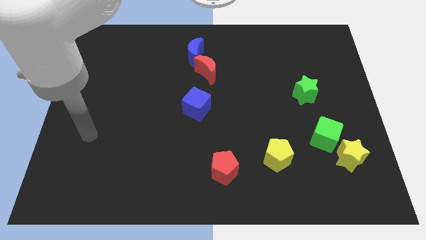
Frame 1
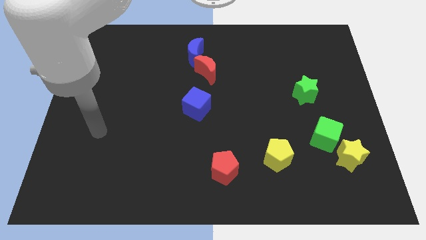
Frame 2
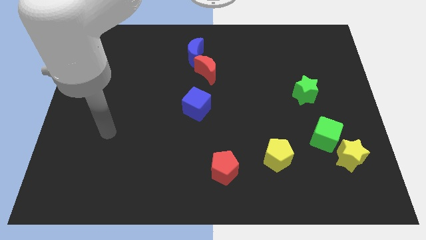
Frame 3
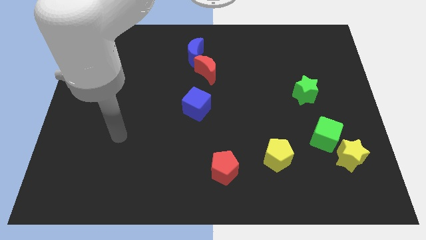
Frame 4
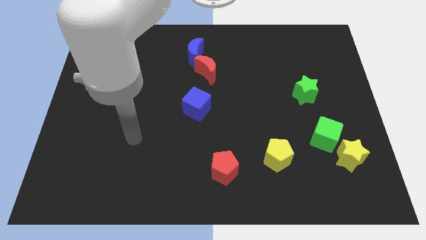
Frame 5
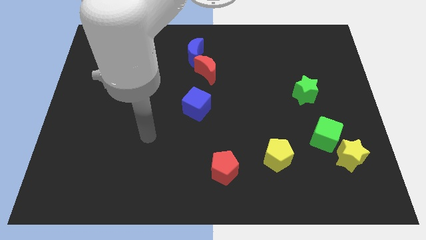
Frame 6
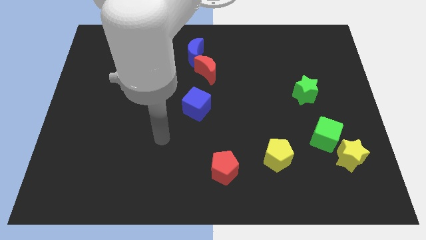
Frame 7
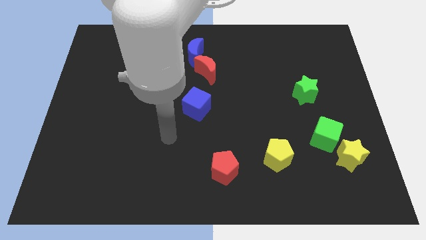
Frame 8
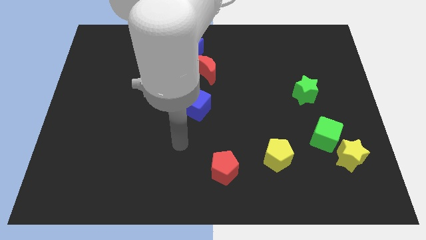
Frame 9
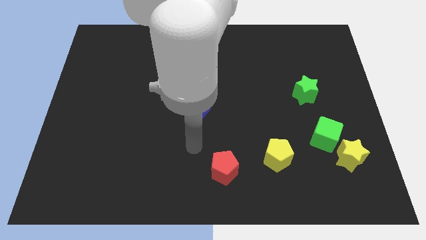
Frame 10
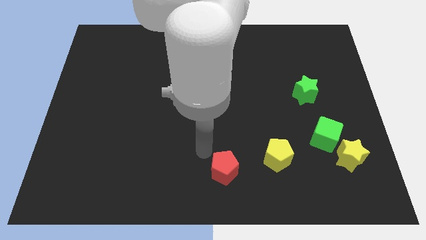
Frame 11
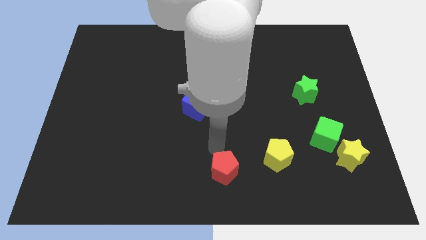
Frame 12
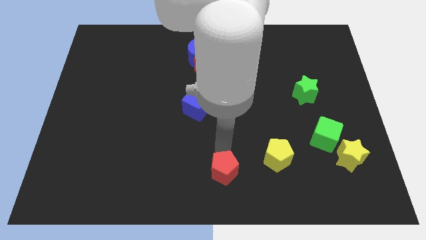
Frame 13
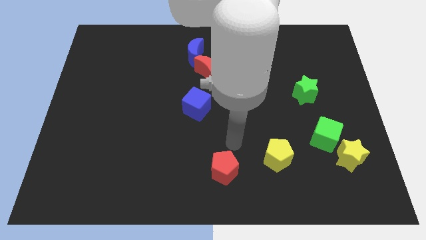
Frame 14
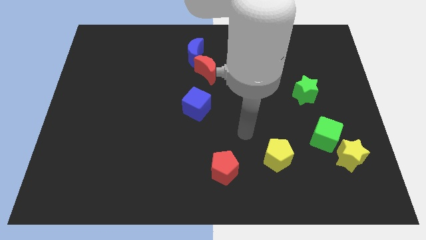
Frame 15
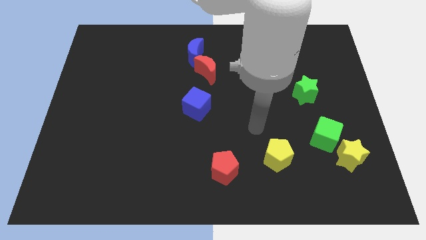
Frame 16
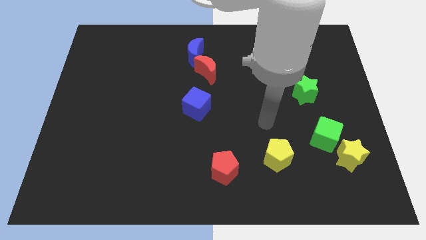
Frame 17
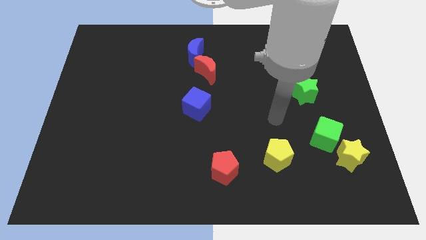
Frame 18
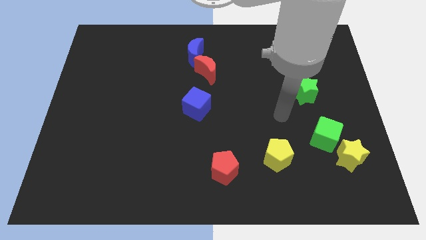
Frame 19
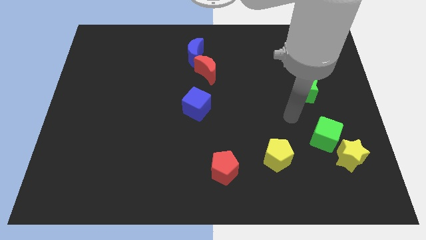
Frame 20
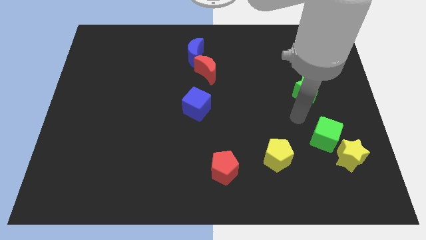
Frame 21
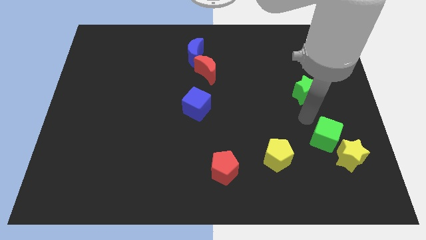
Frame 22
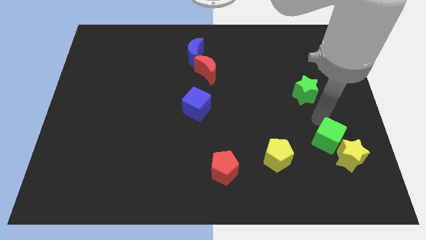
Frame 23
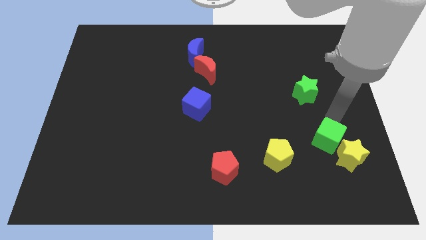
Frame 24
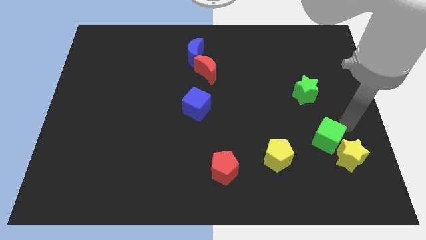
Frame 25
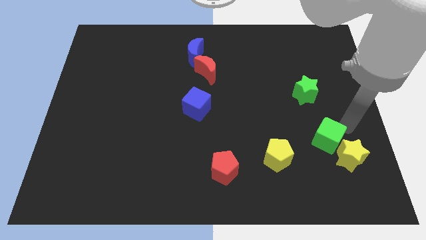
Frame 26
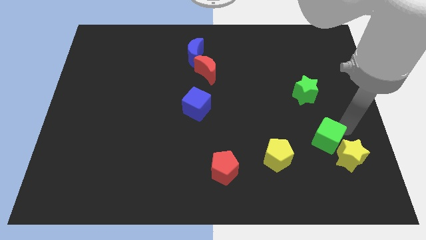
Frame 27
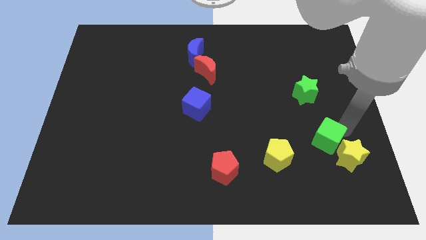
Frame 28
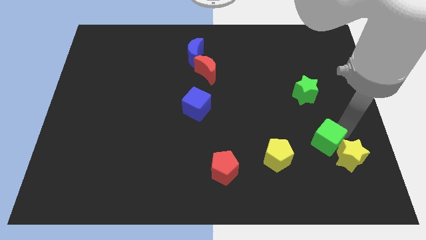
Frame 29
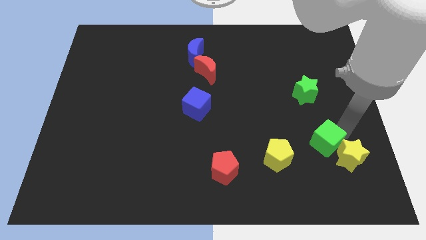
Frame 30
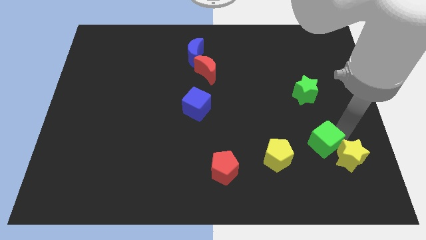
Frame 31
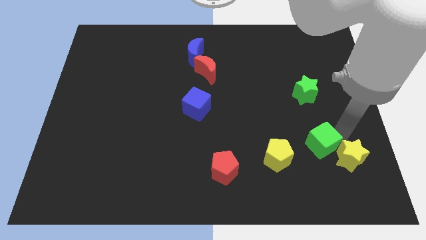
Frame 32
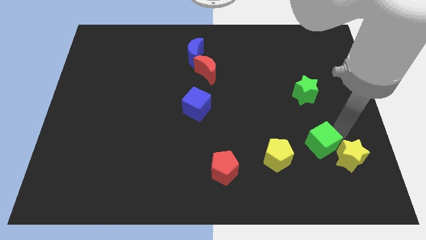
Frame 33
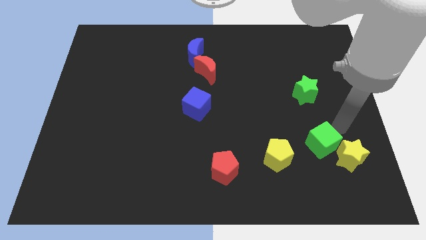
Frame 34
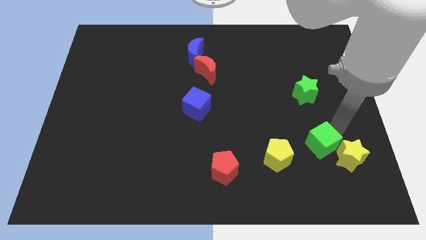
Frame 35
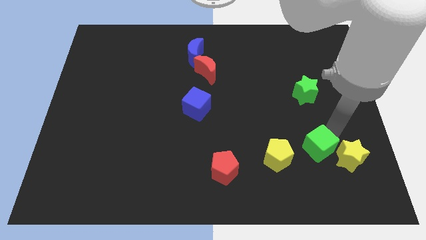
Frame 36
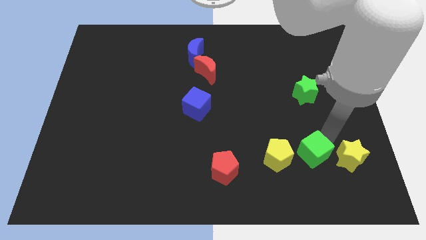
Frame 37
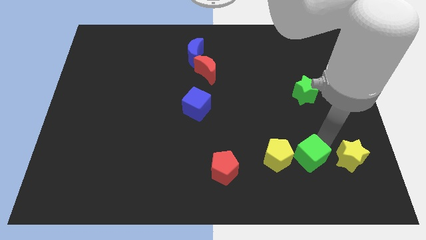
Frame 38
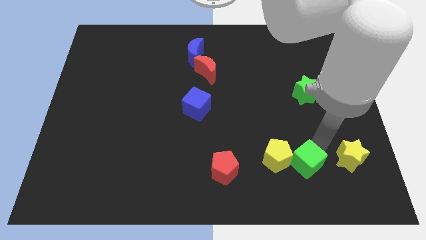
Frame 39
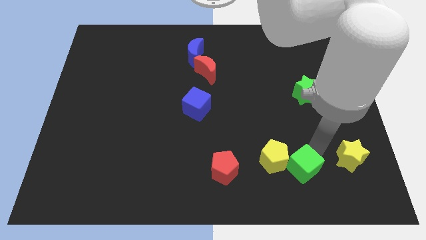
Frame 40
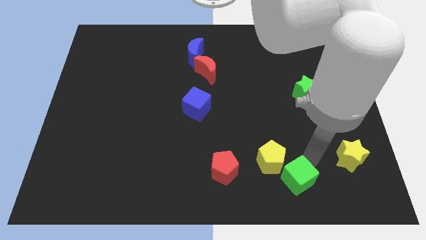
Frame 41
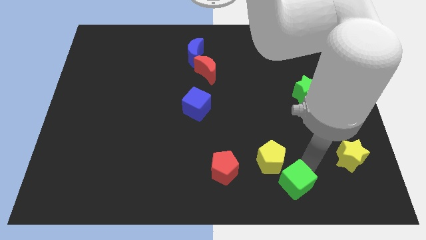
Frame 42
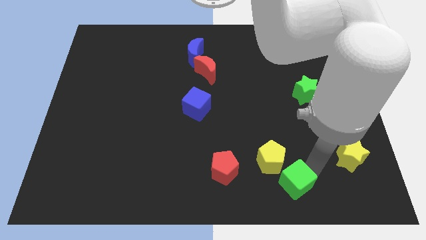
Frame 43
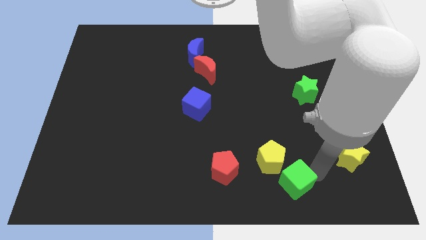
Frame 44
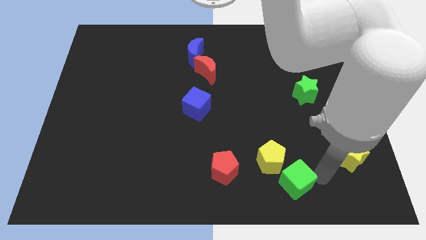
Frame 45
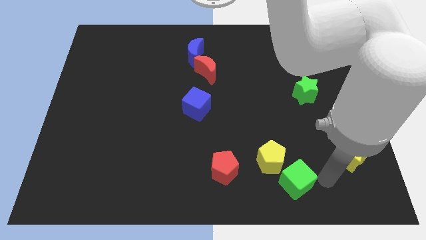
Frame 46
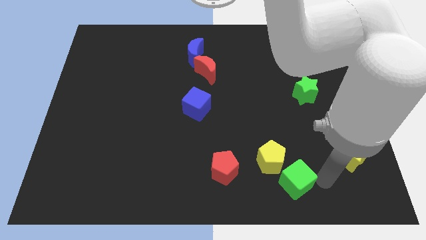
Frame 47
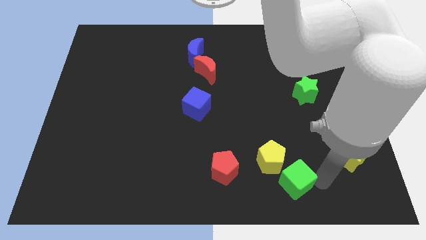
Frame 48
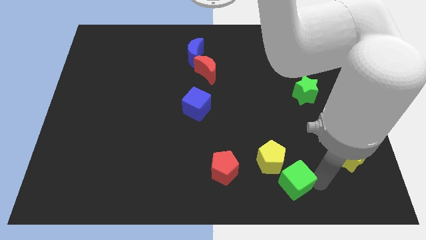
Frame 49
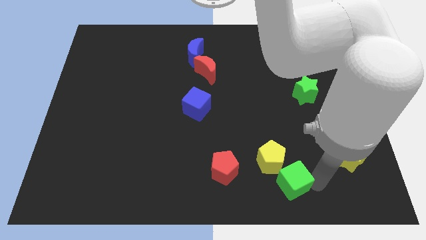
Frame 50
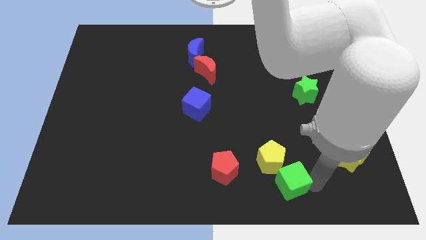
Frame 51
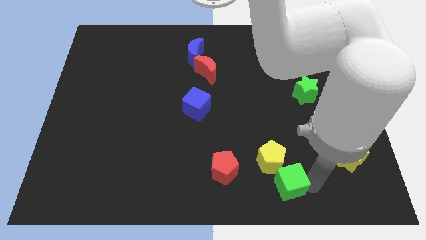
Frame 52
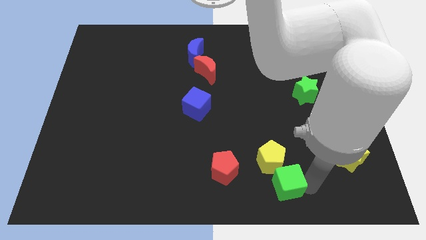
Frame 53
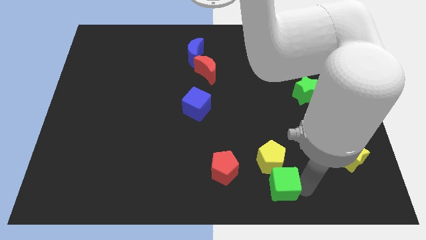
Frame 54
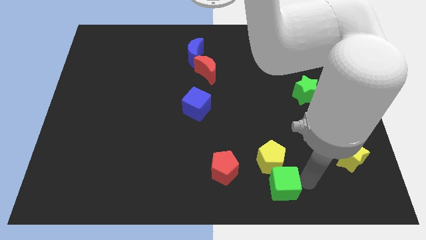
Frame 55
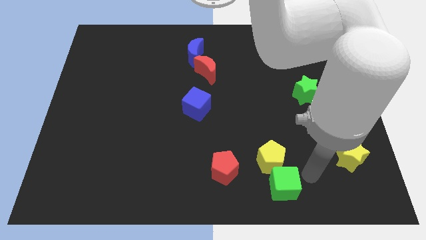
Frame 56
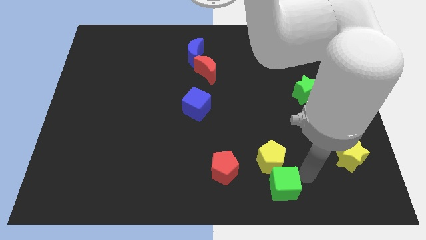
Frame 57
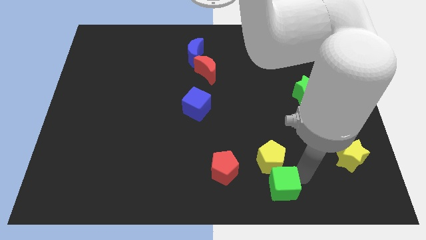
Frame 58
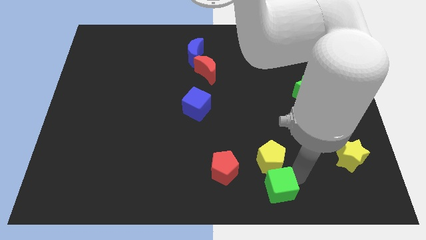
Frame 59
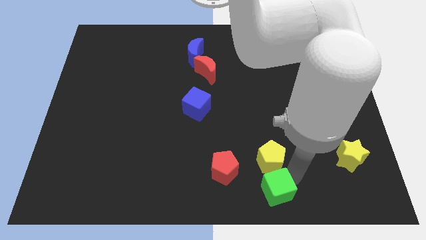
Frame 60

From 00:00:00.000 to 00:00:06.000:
slide the green cube to the bottom

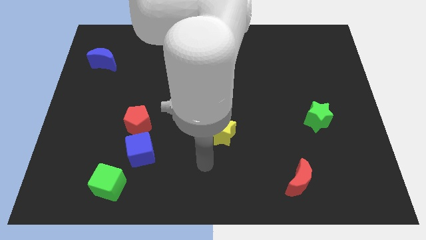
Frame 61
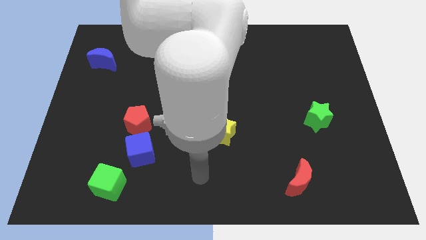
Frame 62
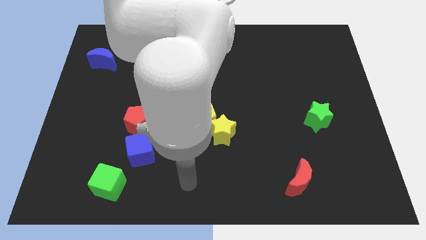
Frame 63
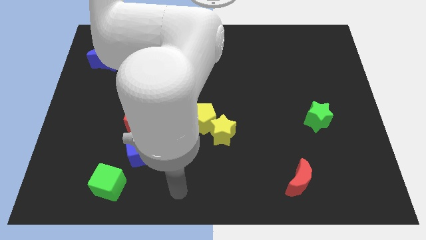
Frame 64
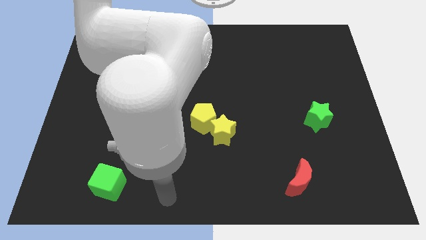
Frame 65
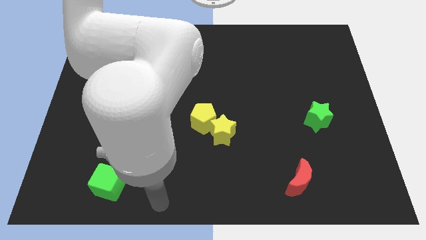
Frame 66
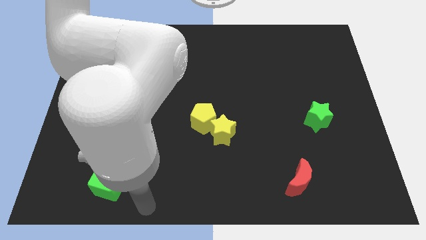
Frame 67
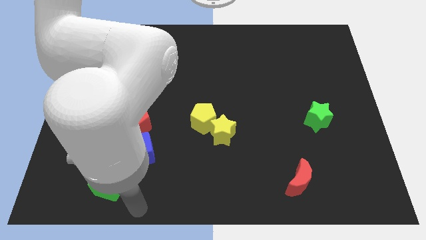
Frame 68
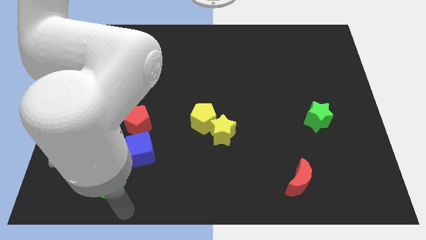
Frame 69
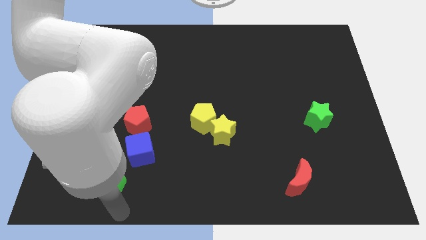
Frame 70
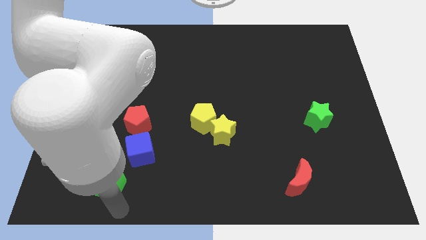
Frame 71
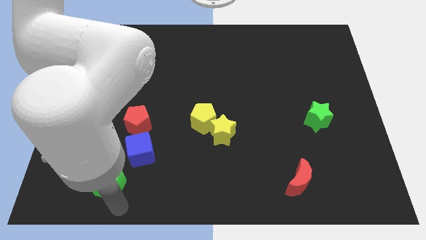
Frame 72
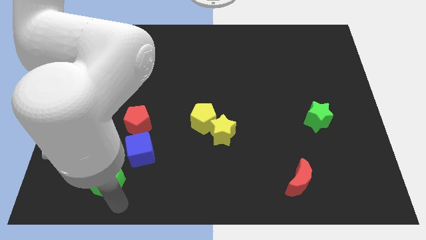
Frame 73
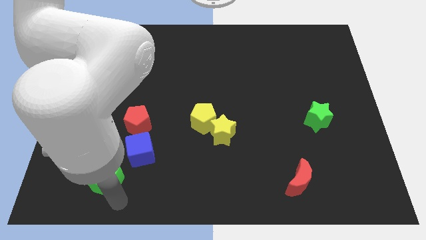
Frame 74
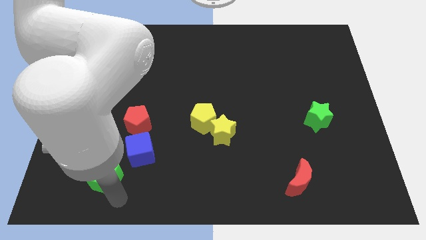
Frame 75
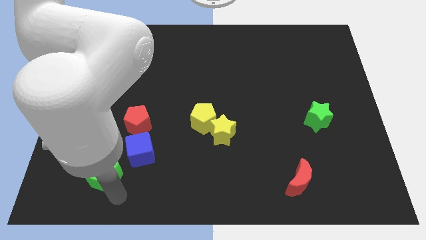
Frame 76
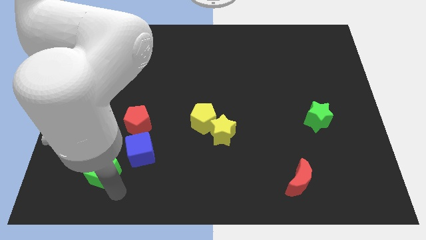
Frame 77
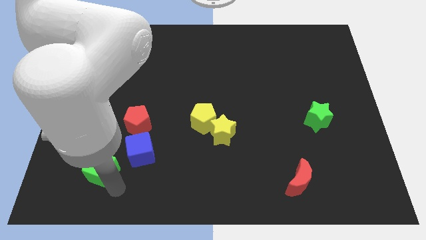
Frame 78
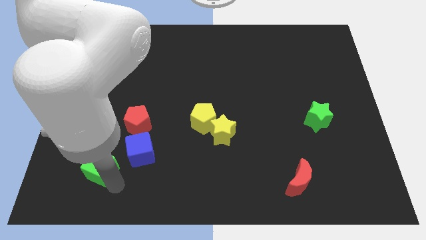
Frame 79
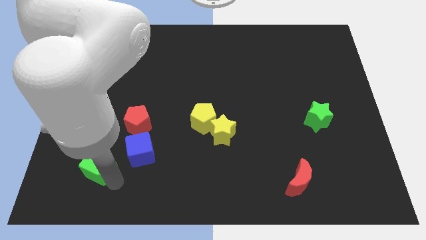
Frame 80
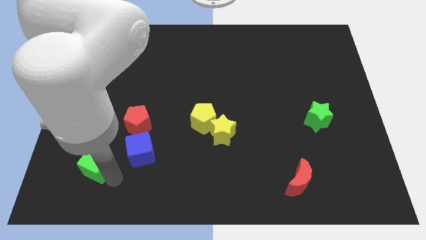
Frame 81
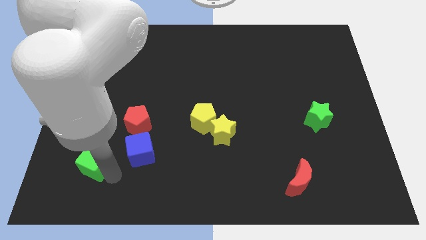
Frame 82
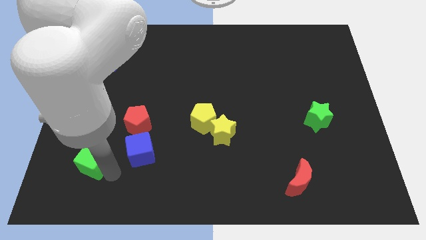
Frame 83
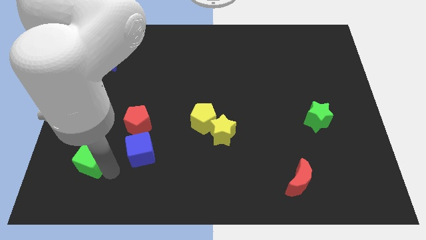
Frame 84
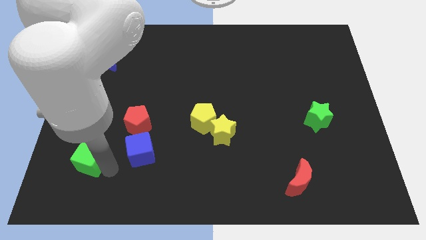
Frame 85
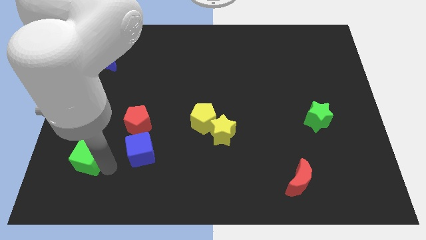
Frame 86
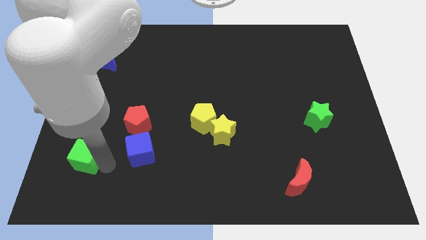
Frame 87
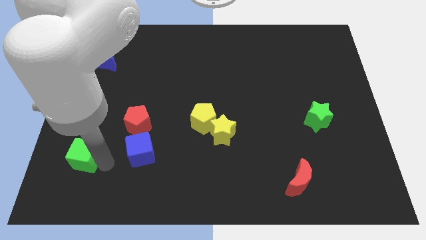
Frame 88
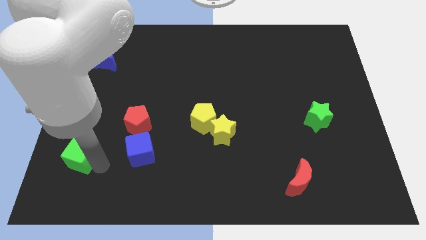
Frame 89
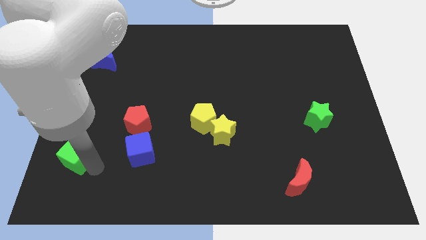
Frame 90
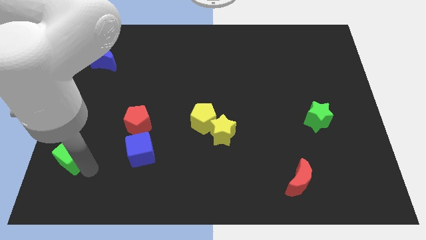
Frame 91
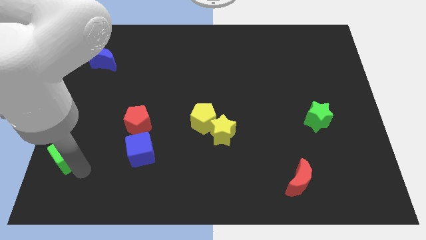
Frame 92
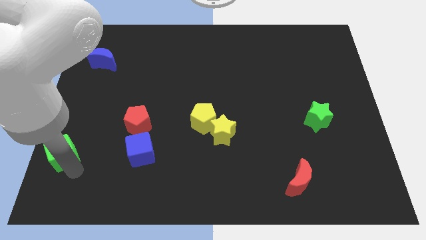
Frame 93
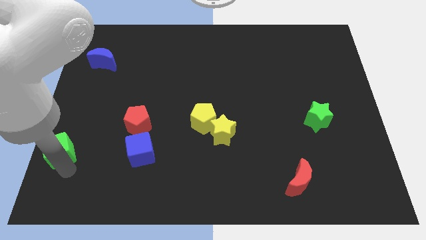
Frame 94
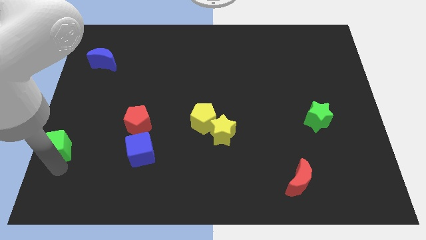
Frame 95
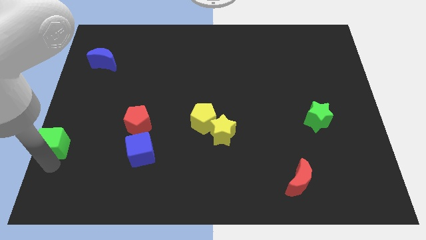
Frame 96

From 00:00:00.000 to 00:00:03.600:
move the green cube to the left side
